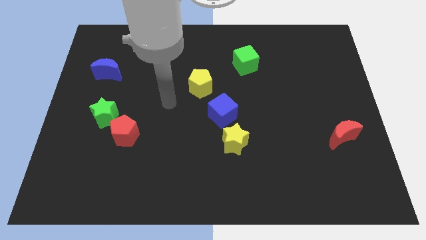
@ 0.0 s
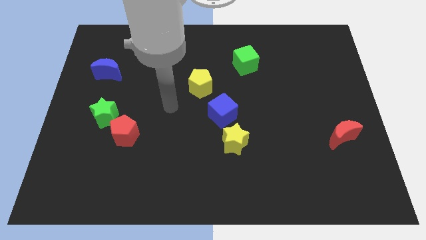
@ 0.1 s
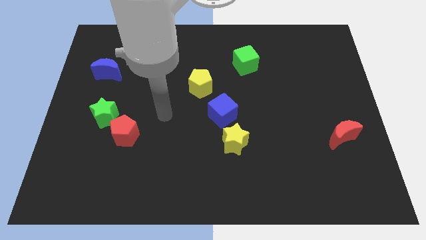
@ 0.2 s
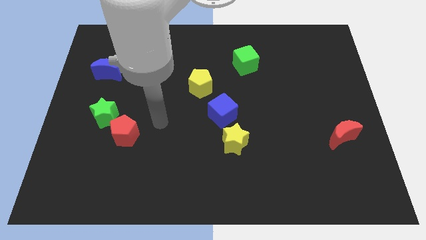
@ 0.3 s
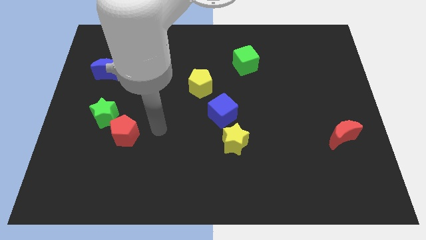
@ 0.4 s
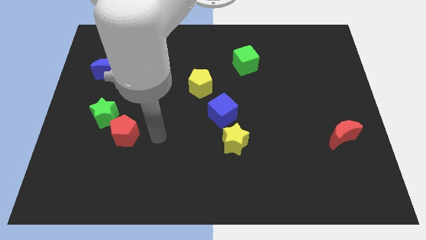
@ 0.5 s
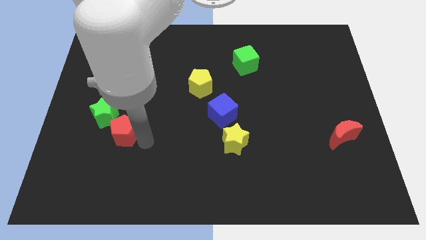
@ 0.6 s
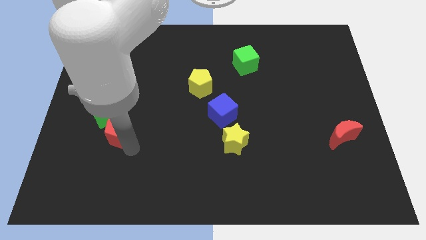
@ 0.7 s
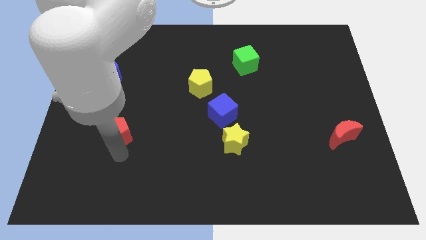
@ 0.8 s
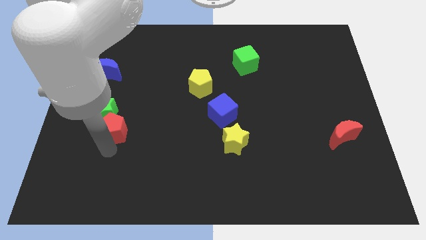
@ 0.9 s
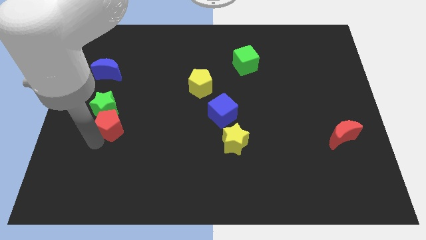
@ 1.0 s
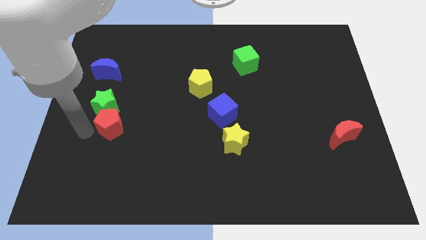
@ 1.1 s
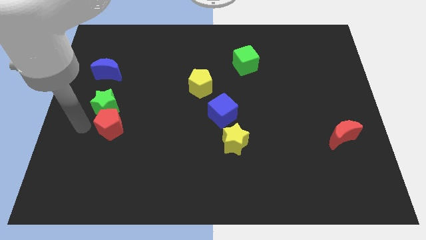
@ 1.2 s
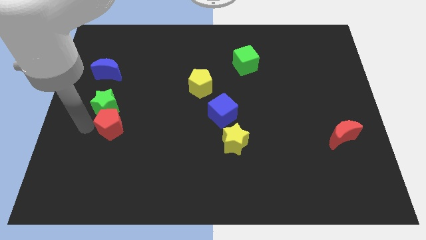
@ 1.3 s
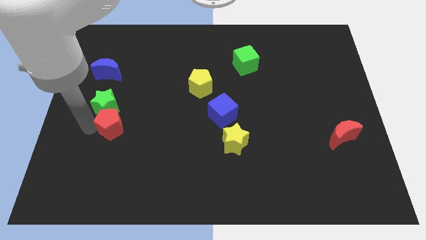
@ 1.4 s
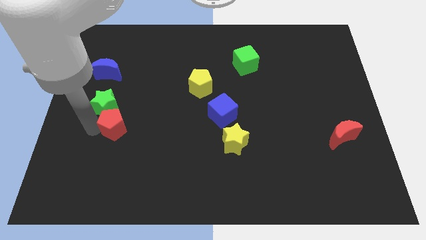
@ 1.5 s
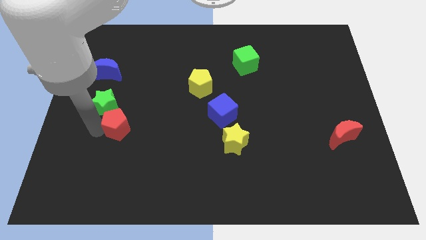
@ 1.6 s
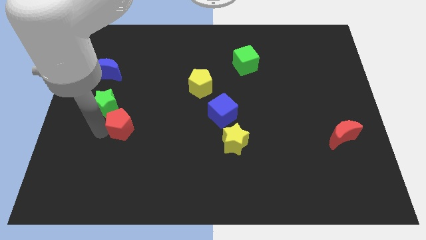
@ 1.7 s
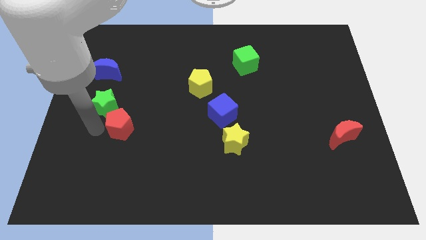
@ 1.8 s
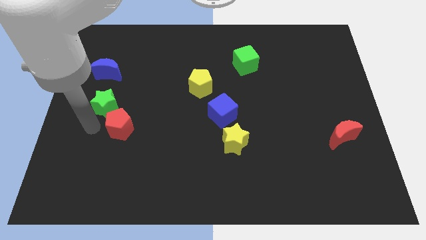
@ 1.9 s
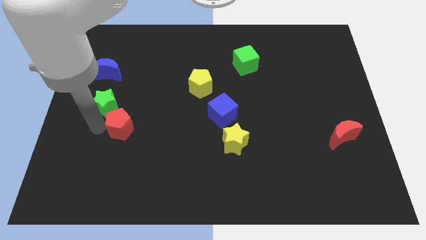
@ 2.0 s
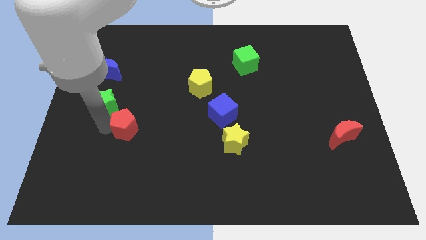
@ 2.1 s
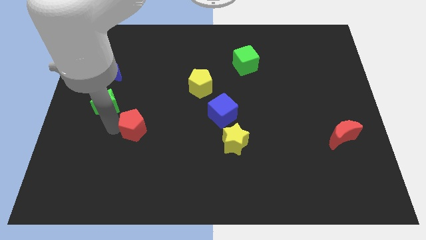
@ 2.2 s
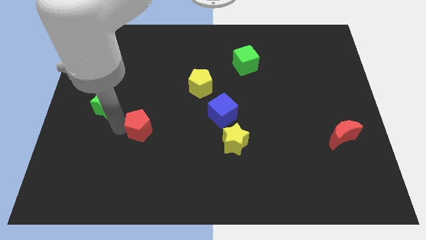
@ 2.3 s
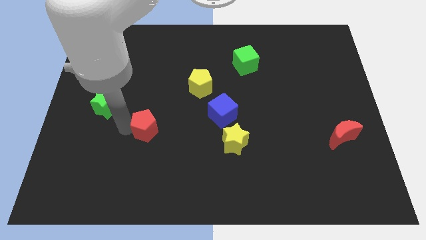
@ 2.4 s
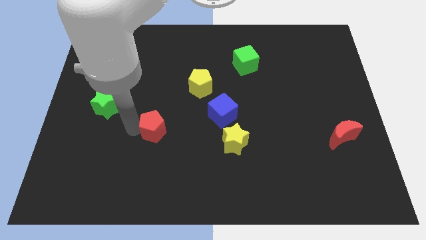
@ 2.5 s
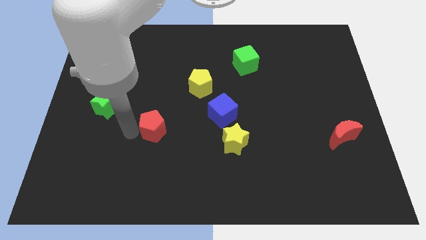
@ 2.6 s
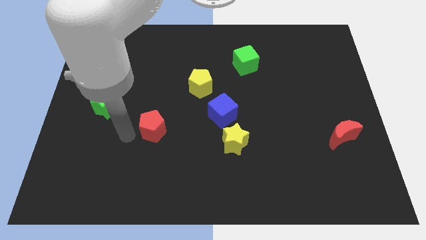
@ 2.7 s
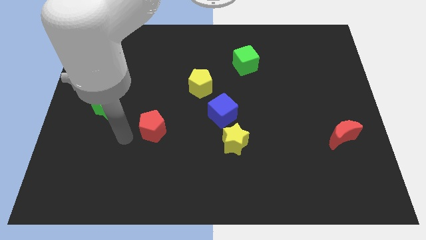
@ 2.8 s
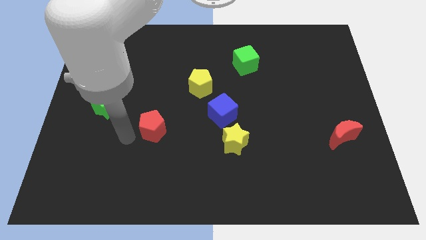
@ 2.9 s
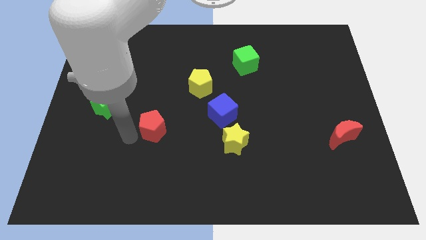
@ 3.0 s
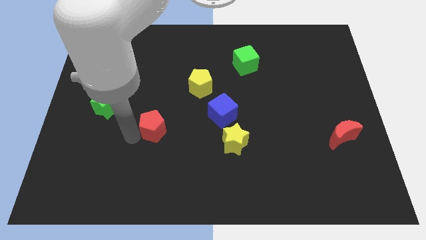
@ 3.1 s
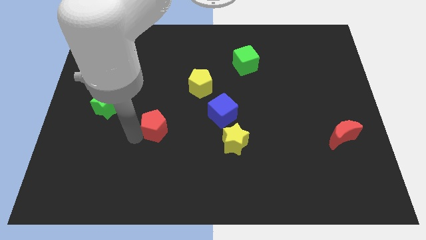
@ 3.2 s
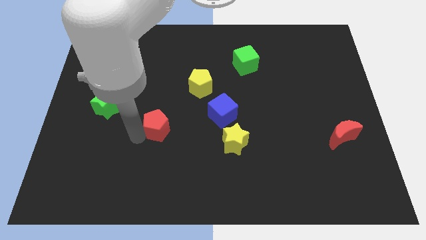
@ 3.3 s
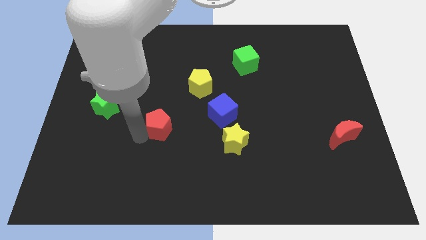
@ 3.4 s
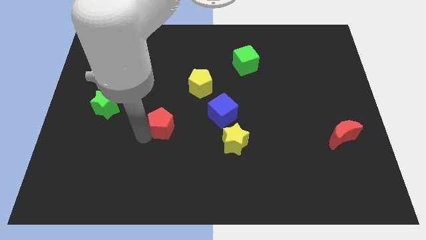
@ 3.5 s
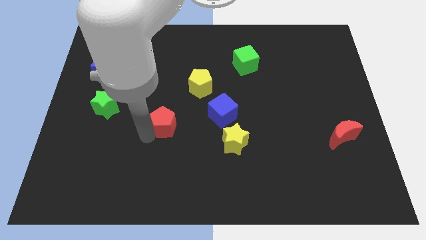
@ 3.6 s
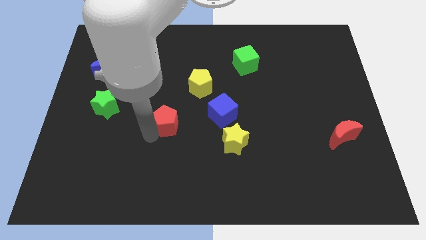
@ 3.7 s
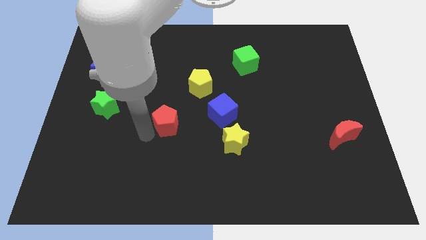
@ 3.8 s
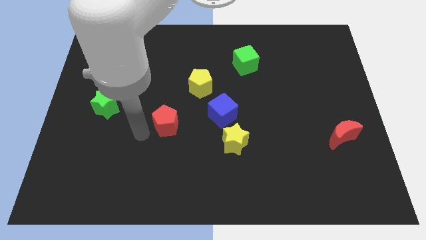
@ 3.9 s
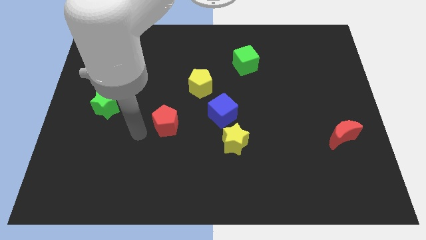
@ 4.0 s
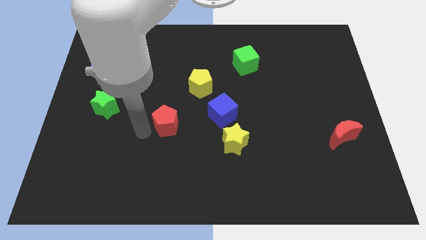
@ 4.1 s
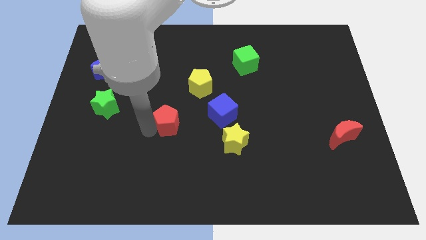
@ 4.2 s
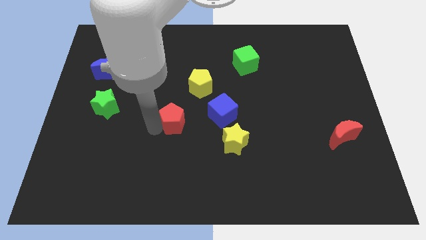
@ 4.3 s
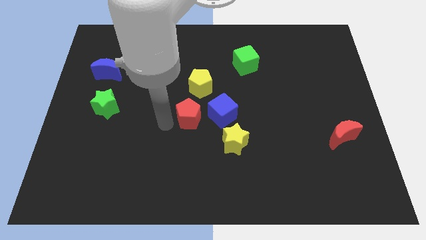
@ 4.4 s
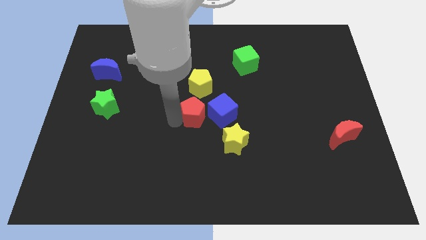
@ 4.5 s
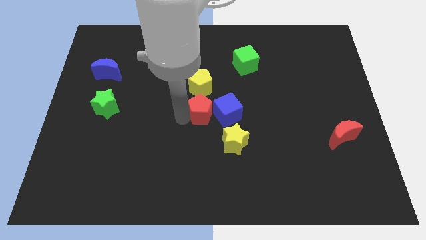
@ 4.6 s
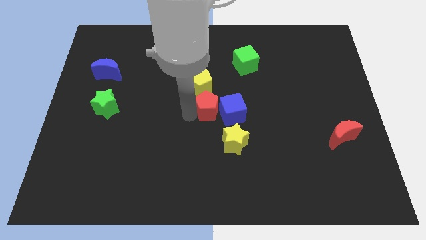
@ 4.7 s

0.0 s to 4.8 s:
push the red pentagon close to the blue cube

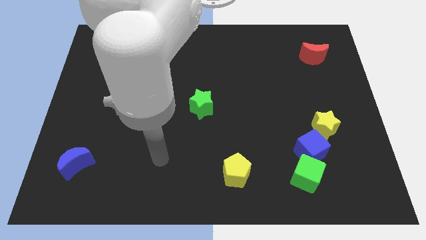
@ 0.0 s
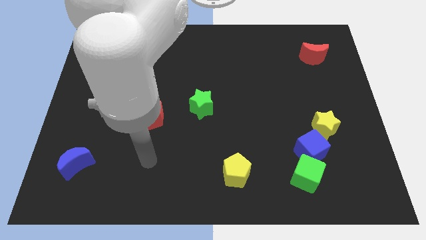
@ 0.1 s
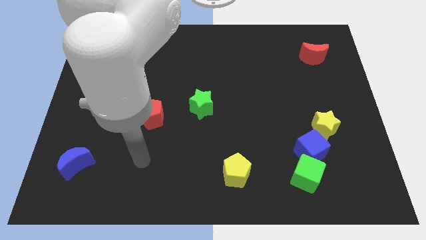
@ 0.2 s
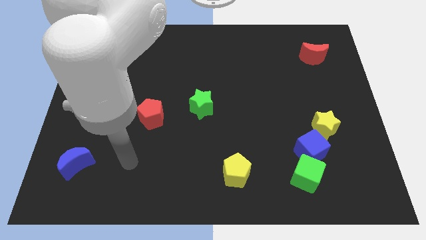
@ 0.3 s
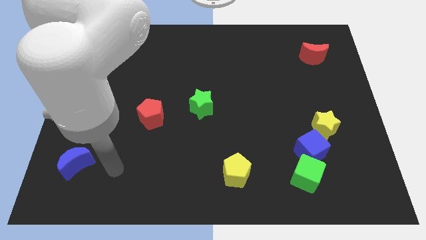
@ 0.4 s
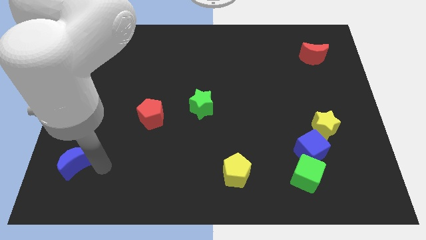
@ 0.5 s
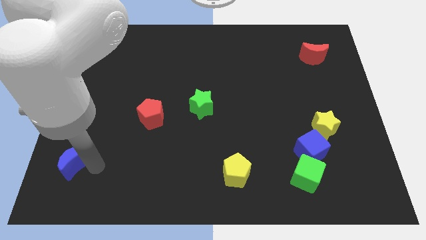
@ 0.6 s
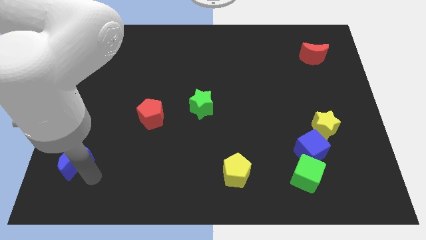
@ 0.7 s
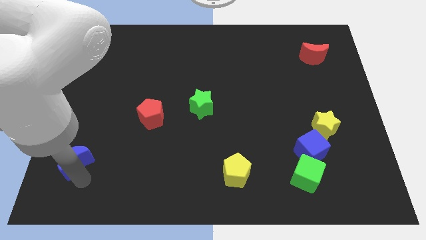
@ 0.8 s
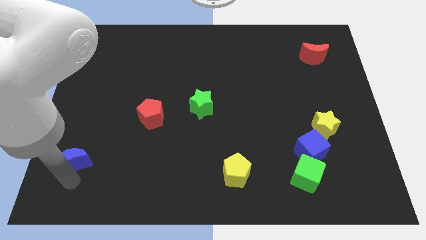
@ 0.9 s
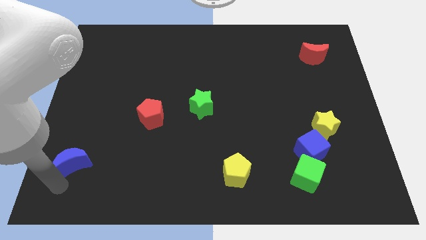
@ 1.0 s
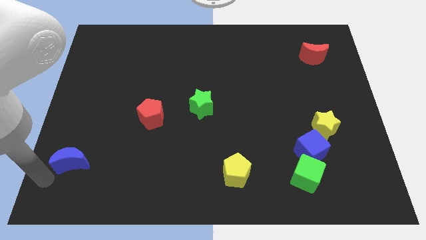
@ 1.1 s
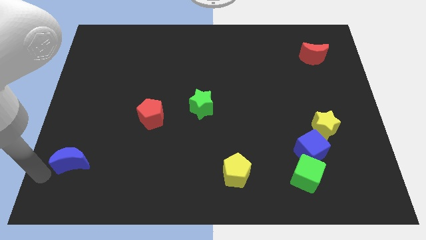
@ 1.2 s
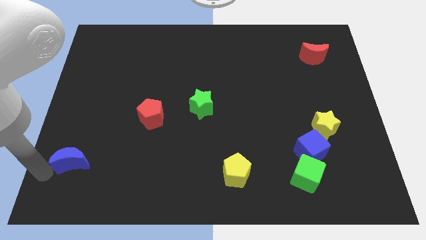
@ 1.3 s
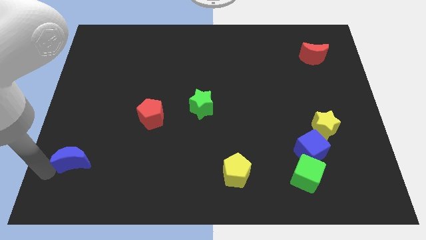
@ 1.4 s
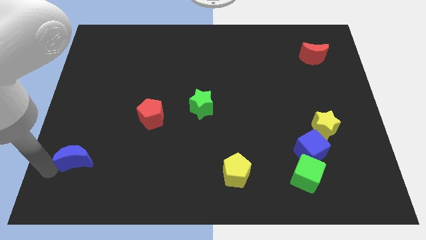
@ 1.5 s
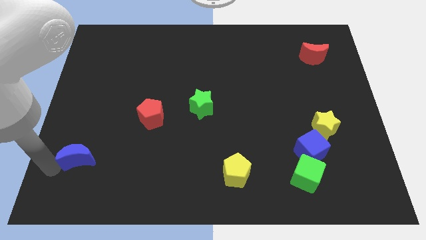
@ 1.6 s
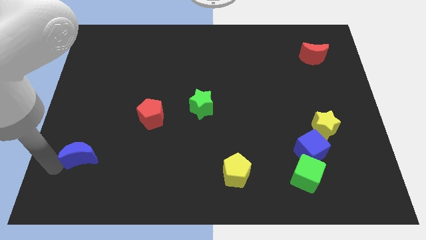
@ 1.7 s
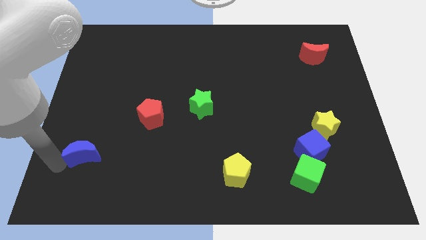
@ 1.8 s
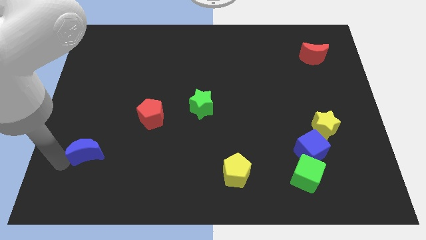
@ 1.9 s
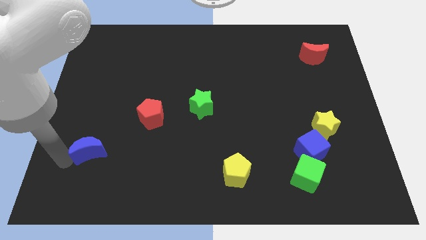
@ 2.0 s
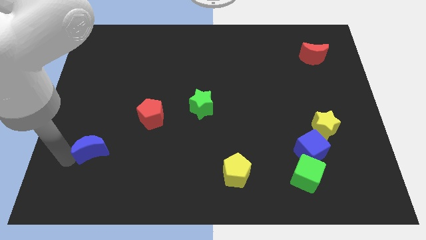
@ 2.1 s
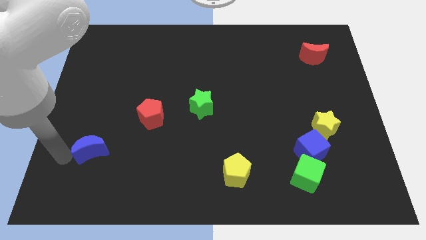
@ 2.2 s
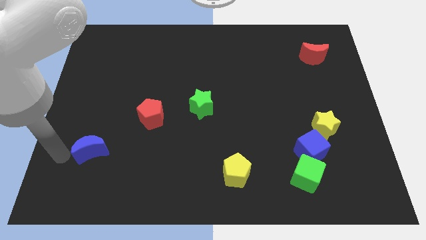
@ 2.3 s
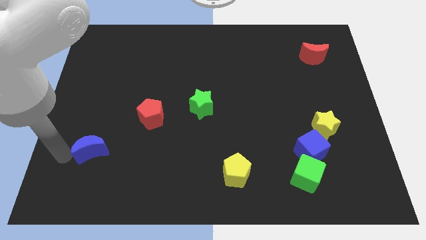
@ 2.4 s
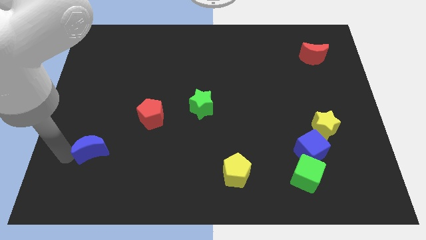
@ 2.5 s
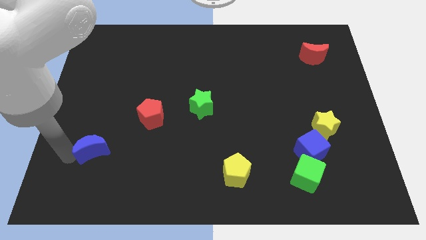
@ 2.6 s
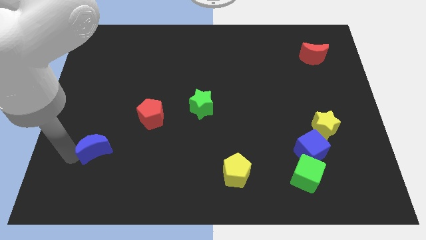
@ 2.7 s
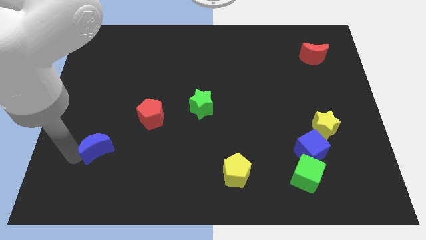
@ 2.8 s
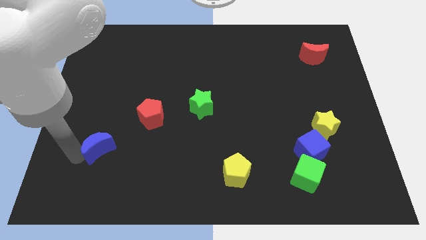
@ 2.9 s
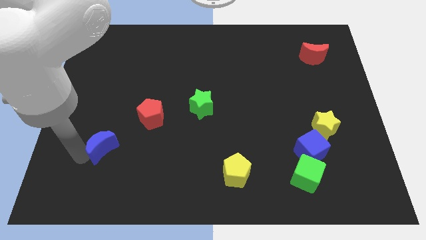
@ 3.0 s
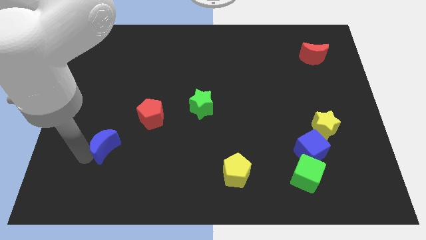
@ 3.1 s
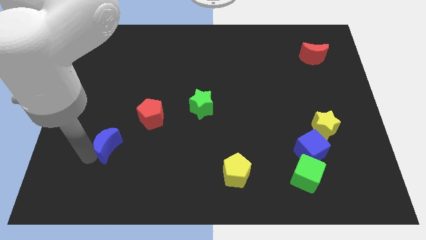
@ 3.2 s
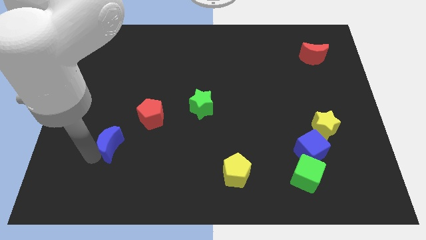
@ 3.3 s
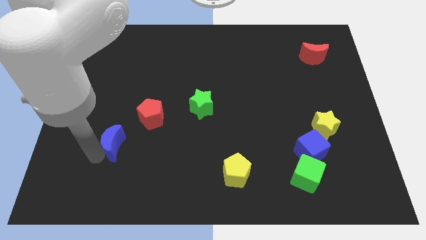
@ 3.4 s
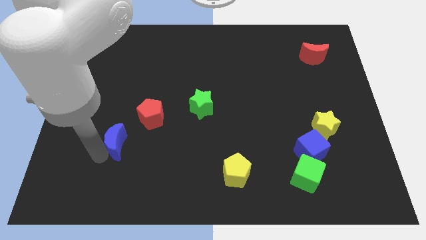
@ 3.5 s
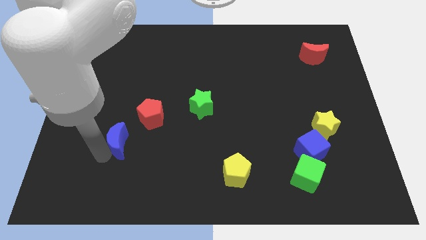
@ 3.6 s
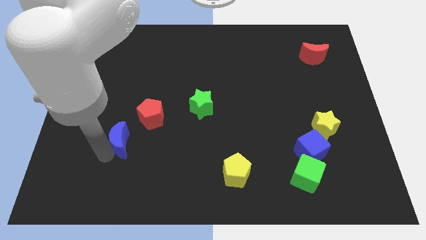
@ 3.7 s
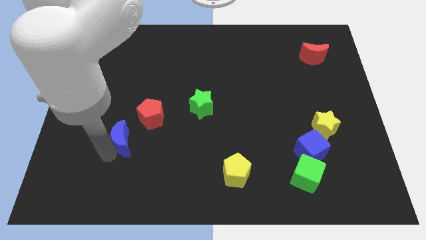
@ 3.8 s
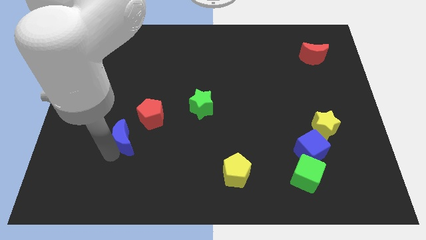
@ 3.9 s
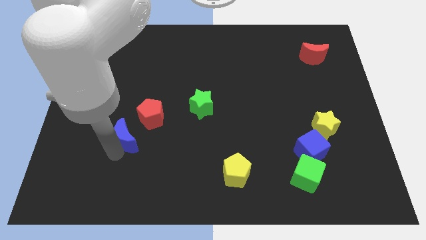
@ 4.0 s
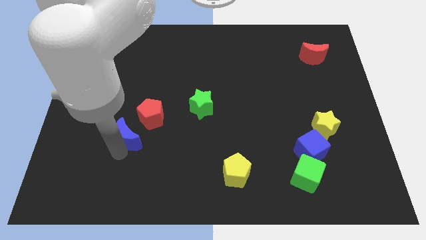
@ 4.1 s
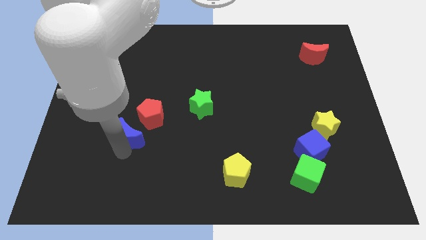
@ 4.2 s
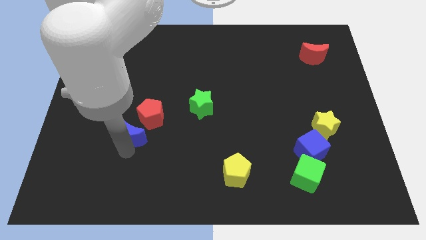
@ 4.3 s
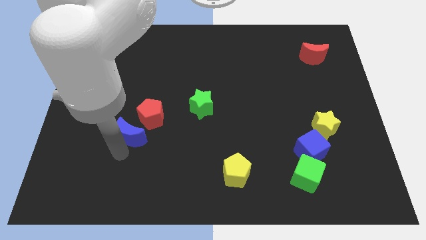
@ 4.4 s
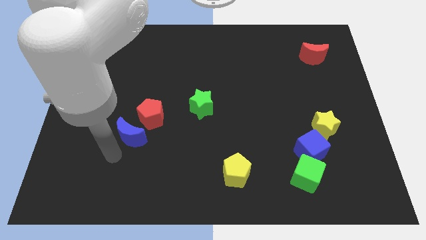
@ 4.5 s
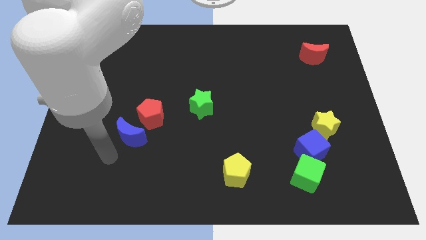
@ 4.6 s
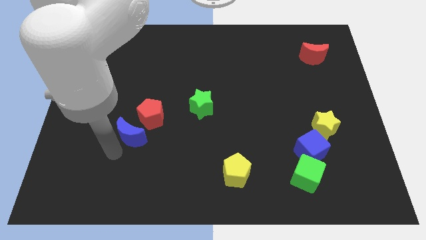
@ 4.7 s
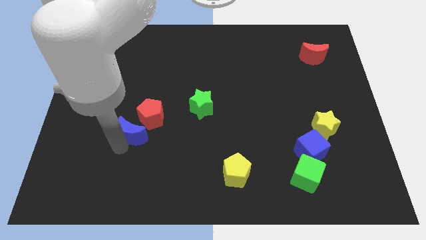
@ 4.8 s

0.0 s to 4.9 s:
push the blue moon to the red pentagon
